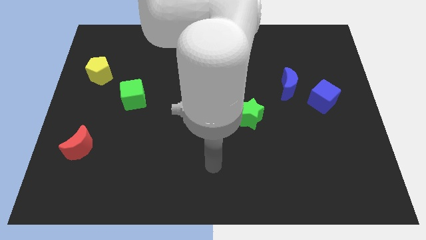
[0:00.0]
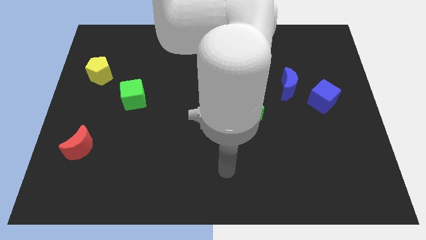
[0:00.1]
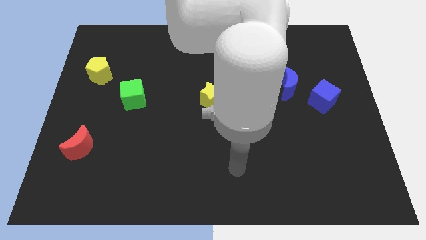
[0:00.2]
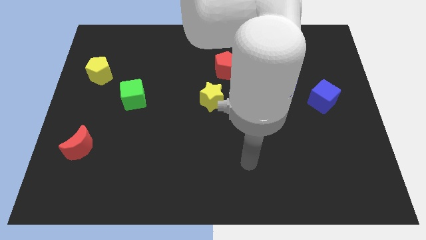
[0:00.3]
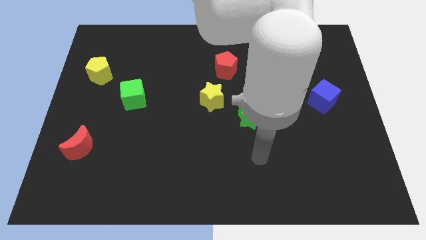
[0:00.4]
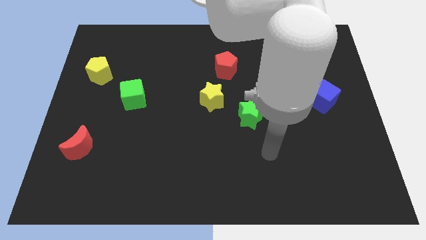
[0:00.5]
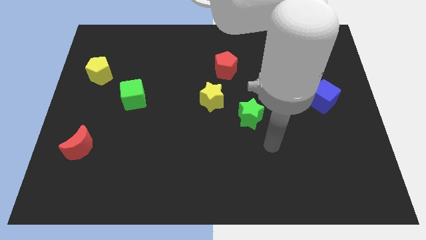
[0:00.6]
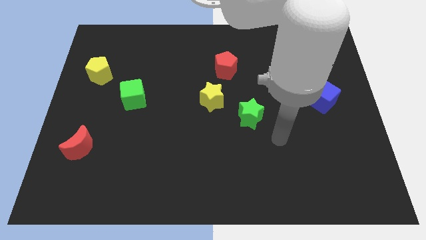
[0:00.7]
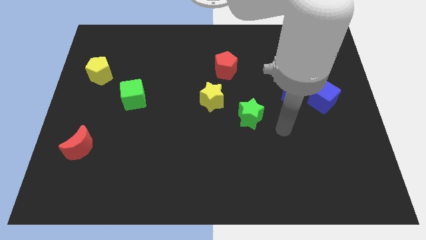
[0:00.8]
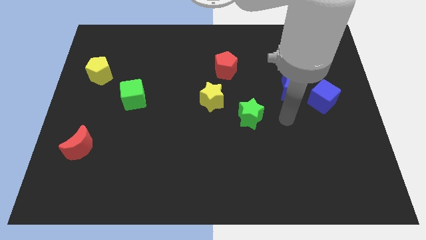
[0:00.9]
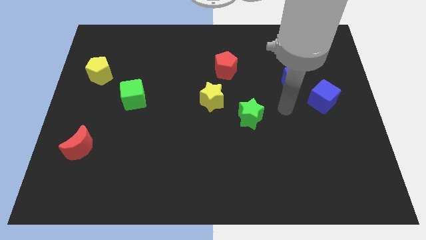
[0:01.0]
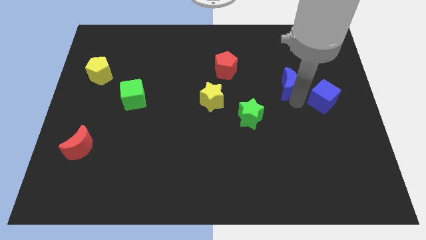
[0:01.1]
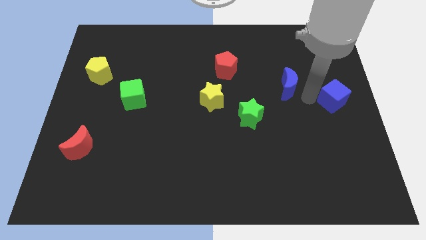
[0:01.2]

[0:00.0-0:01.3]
move the blue moon away from the blue cube

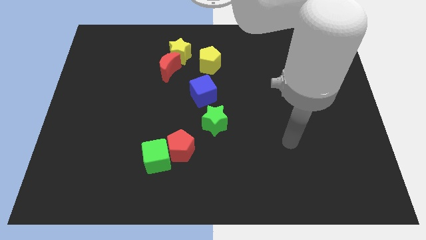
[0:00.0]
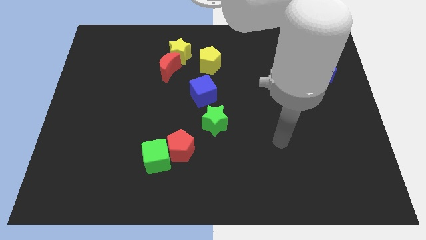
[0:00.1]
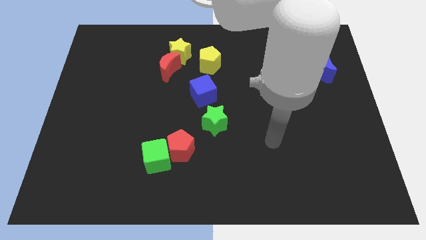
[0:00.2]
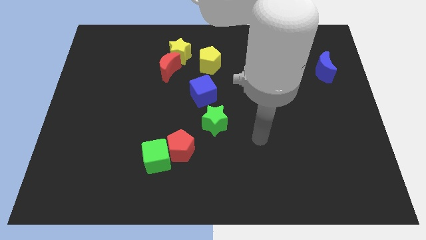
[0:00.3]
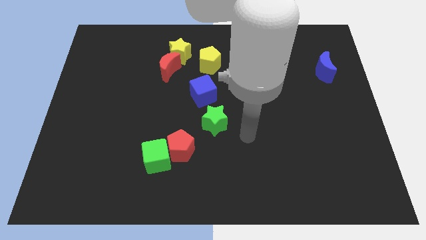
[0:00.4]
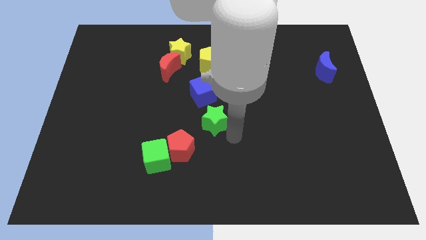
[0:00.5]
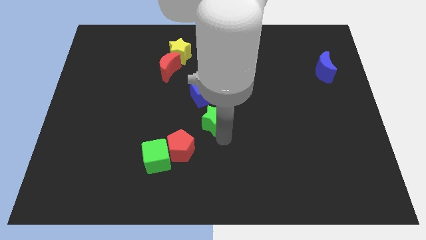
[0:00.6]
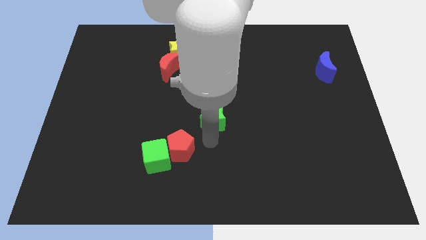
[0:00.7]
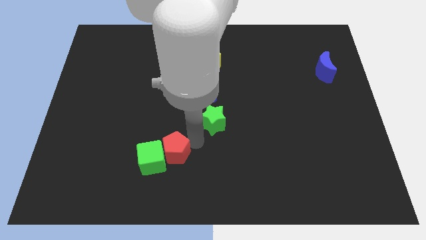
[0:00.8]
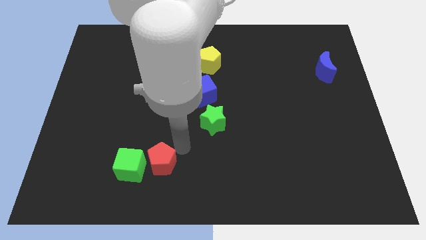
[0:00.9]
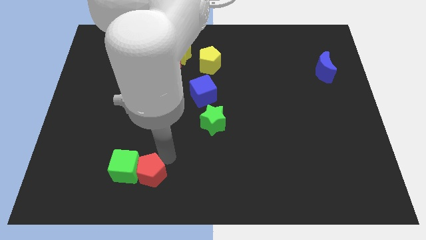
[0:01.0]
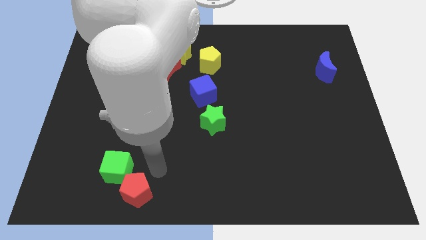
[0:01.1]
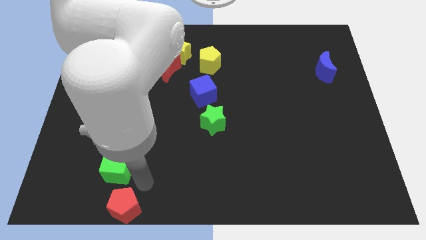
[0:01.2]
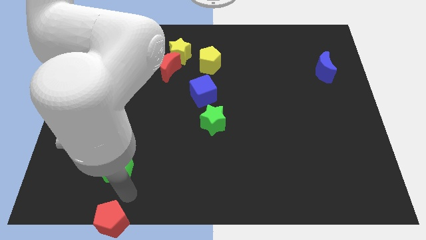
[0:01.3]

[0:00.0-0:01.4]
separate the green cube from the red pentagon

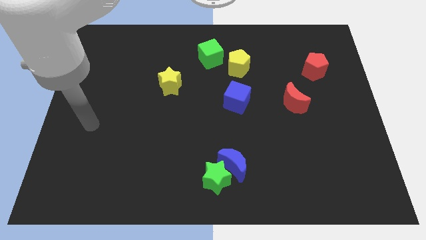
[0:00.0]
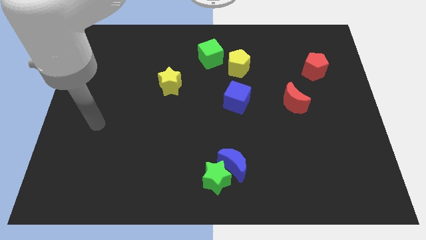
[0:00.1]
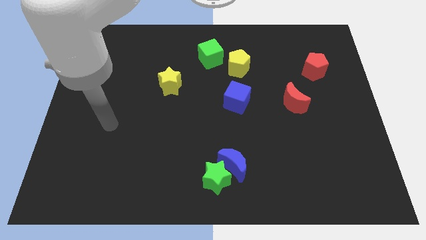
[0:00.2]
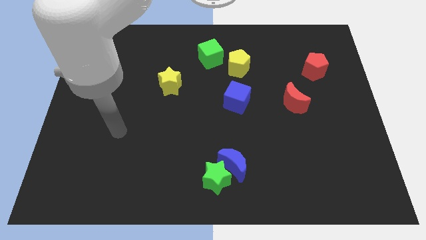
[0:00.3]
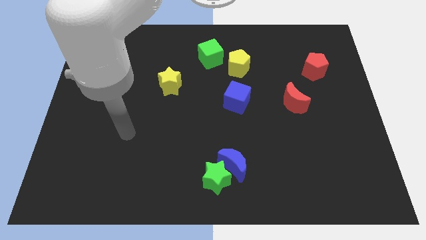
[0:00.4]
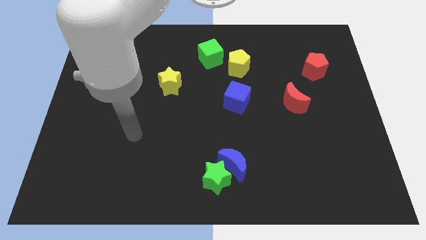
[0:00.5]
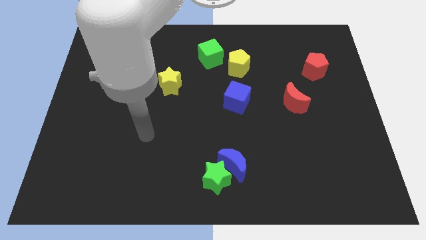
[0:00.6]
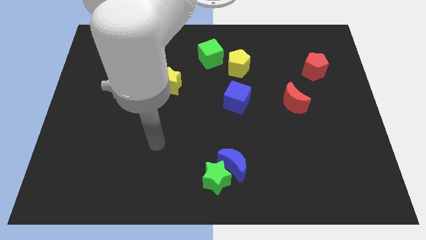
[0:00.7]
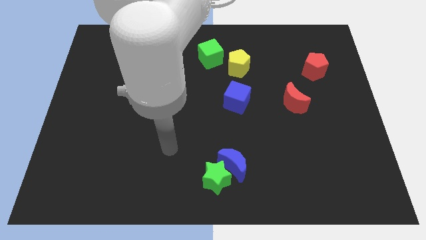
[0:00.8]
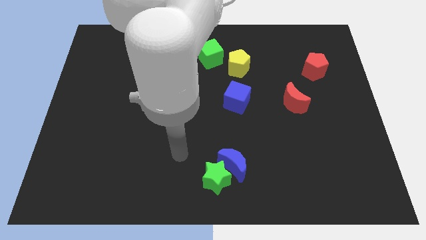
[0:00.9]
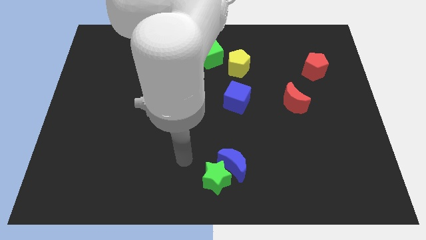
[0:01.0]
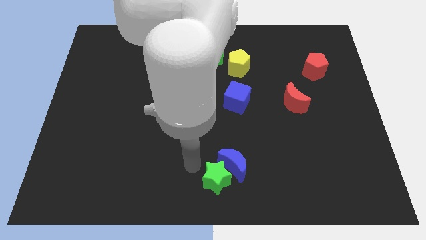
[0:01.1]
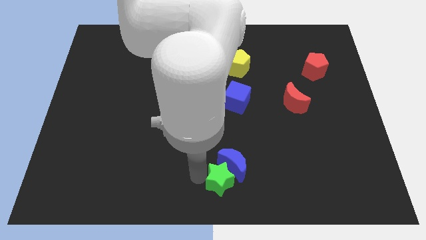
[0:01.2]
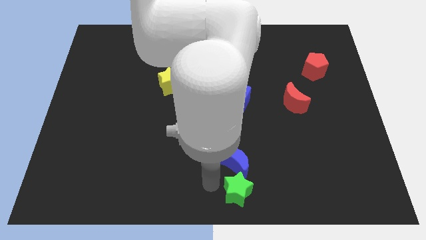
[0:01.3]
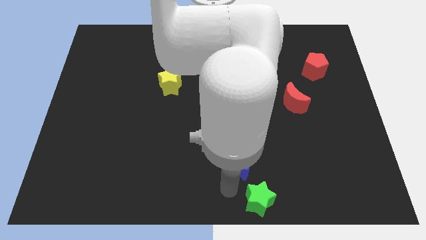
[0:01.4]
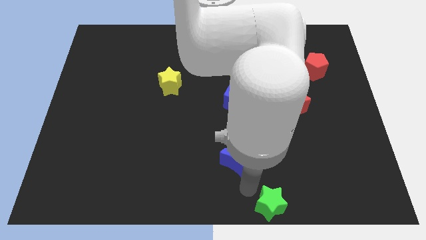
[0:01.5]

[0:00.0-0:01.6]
pull the blue moon apart from the green star

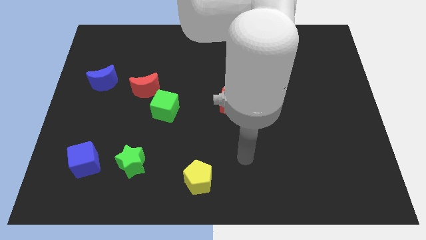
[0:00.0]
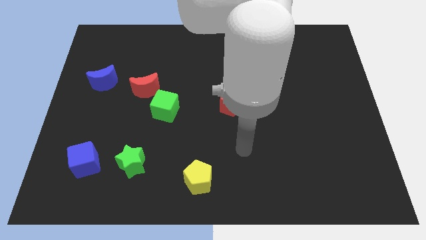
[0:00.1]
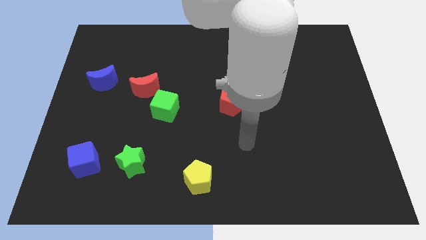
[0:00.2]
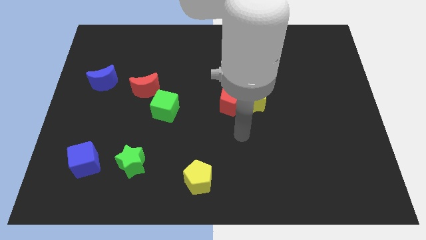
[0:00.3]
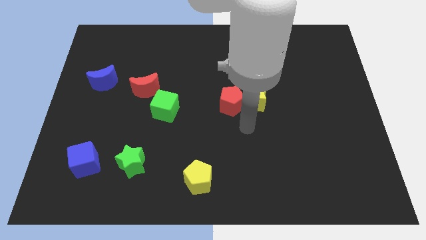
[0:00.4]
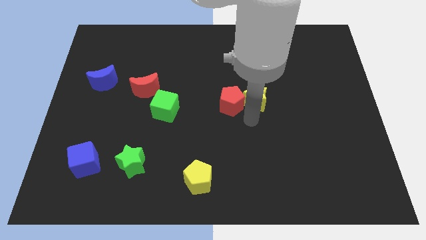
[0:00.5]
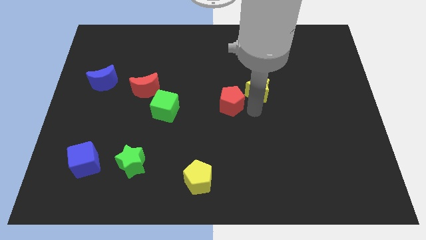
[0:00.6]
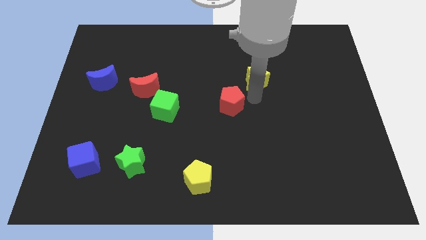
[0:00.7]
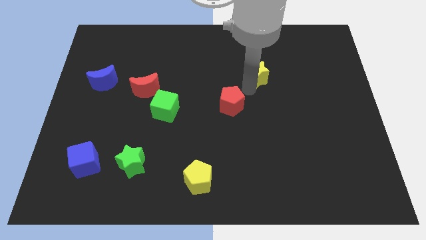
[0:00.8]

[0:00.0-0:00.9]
move the red pentagon away from the yellow star

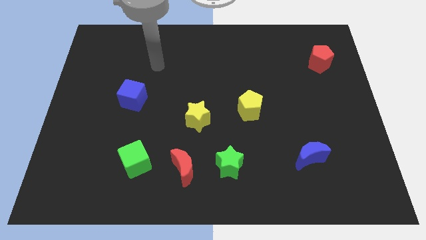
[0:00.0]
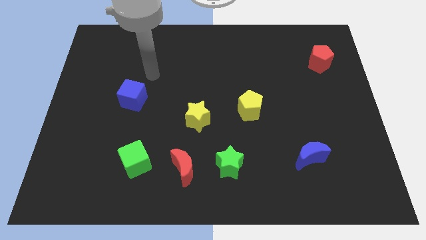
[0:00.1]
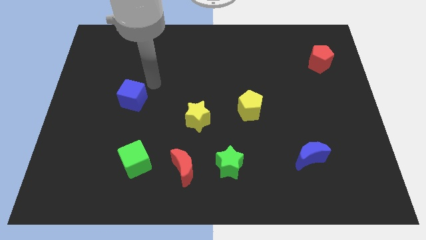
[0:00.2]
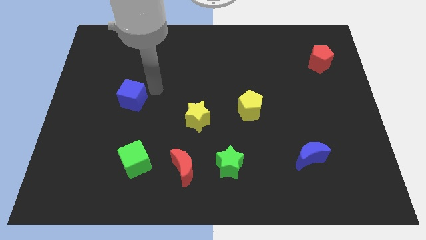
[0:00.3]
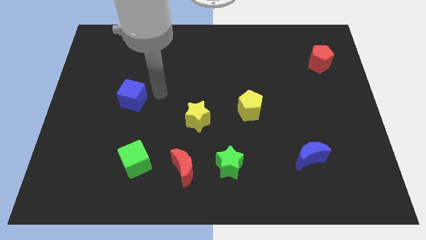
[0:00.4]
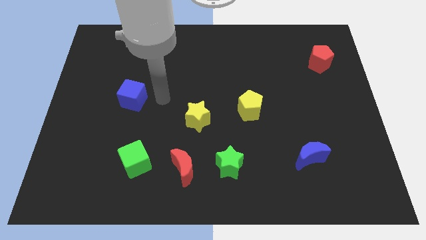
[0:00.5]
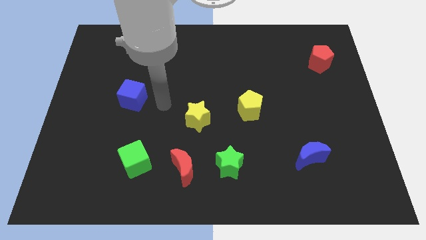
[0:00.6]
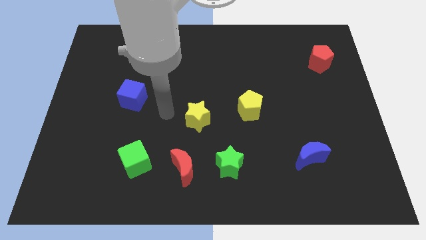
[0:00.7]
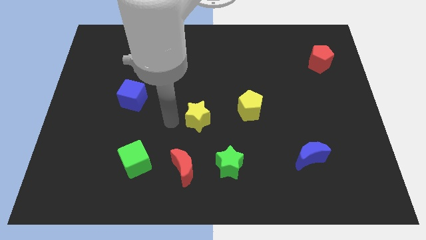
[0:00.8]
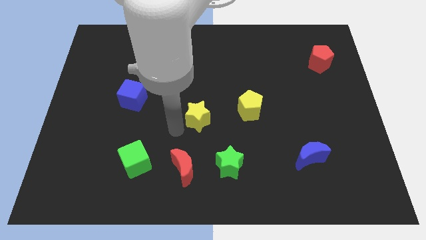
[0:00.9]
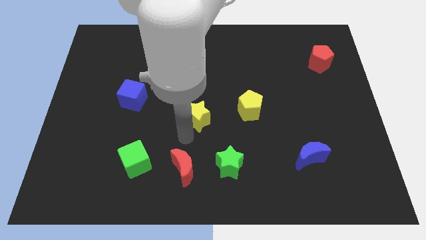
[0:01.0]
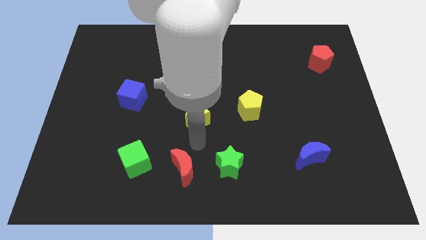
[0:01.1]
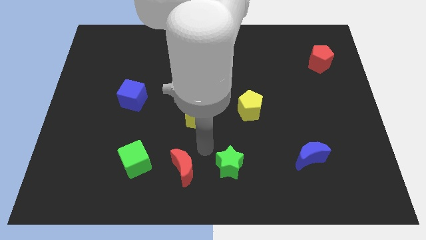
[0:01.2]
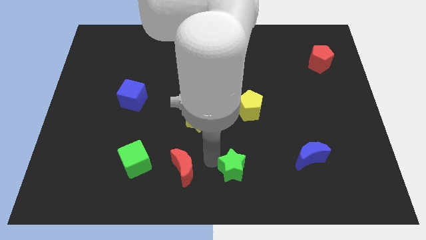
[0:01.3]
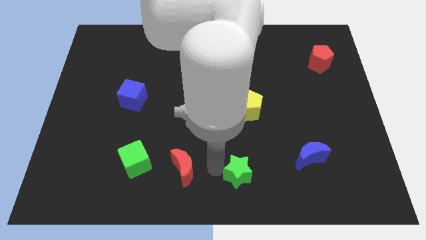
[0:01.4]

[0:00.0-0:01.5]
pull the red moon apart from the green star

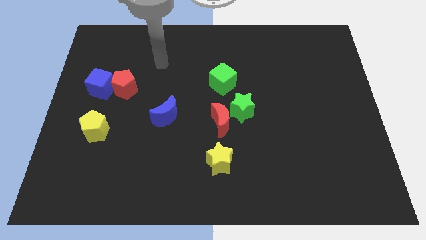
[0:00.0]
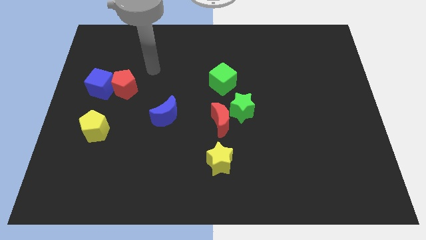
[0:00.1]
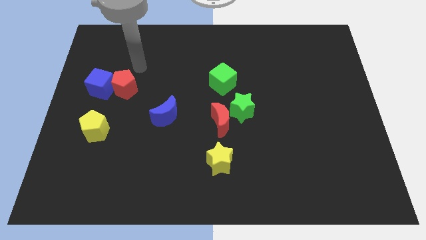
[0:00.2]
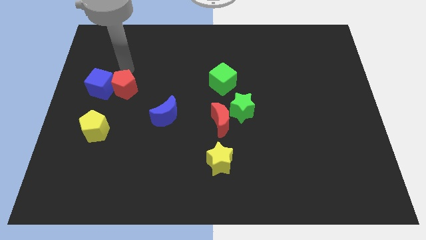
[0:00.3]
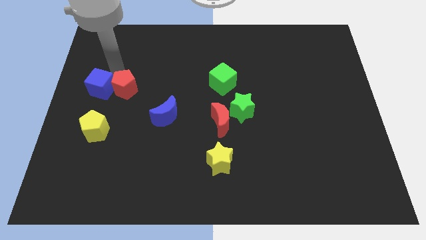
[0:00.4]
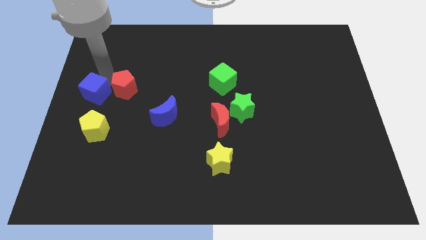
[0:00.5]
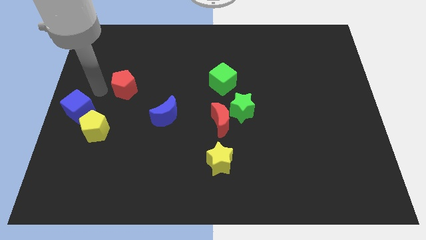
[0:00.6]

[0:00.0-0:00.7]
move the red pentagon away from the blue cube

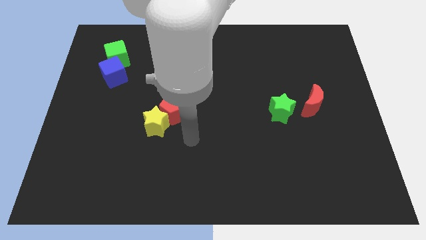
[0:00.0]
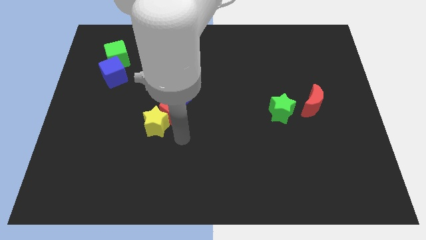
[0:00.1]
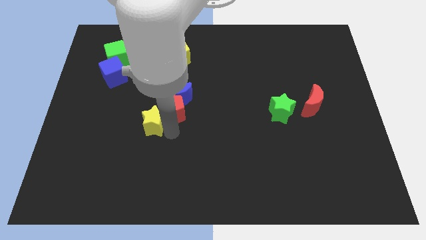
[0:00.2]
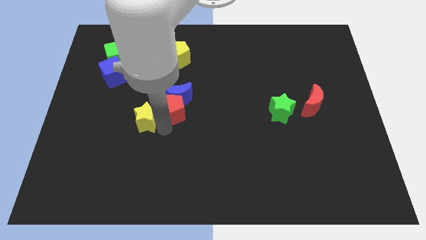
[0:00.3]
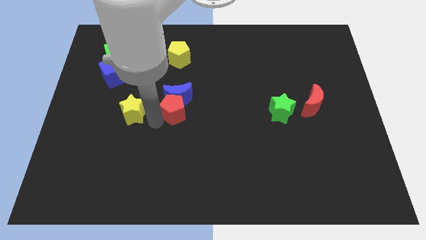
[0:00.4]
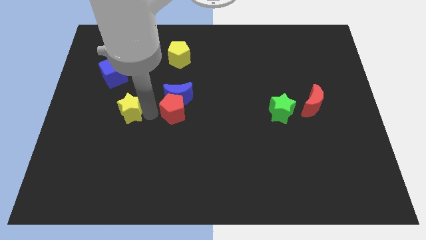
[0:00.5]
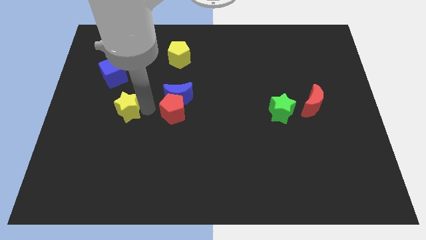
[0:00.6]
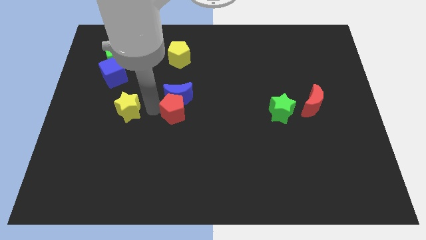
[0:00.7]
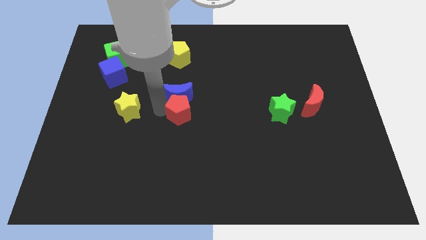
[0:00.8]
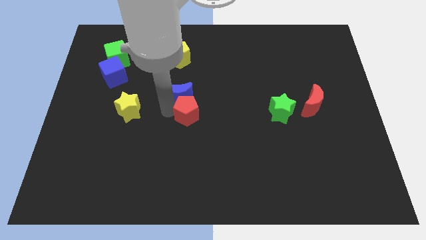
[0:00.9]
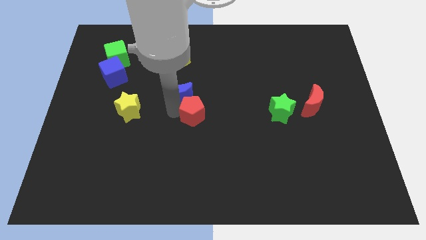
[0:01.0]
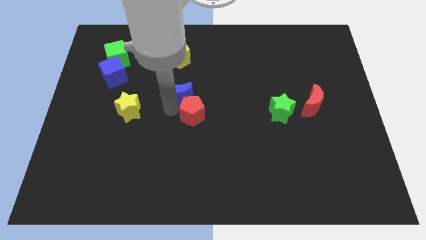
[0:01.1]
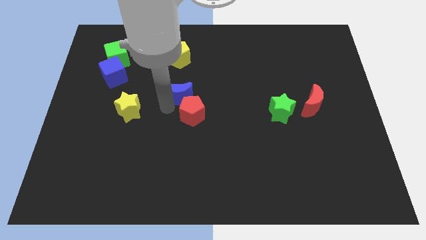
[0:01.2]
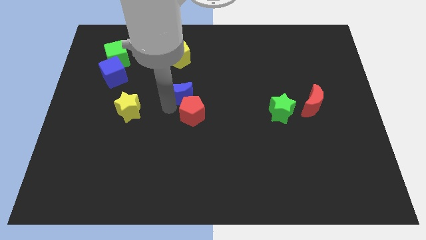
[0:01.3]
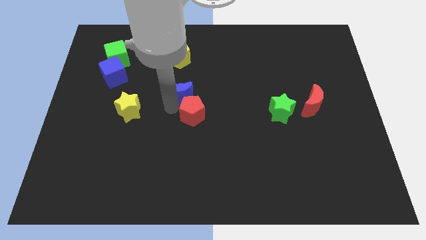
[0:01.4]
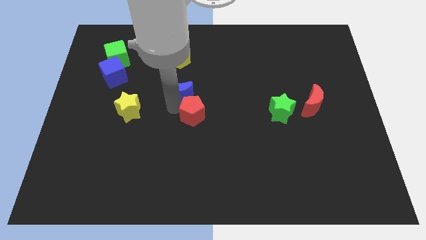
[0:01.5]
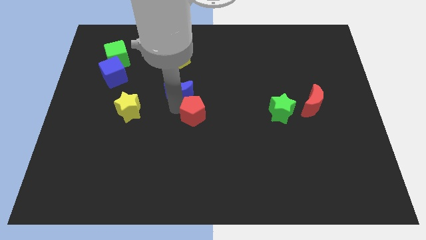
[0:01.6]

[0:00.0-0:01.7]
pull the red pentagon apart from the blue moon and yellow star

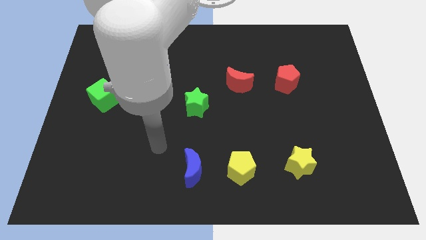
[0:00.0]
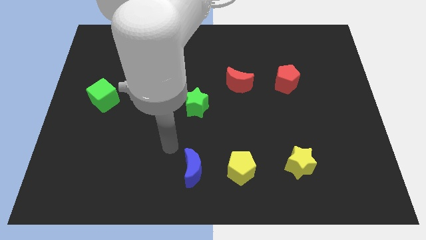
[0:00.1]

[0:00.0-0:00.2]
move the blue moon away from the yellow pentagon
